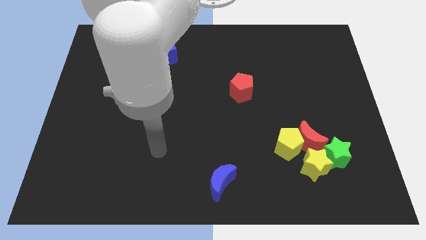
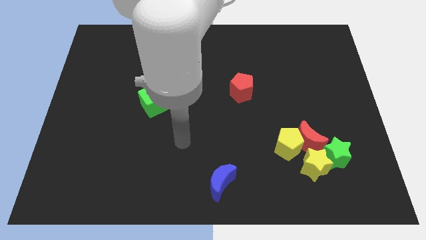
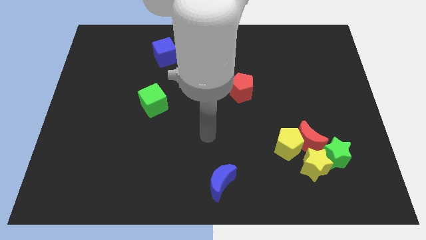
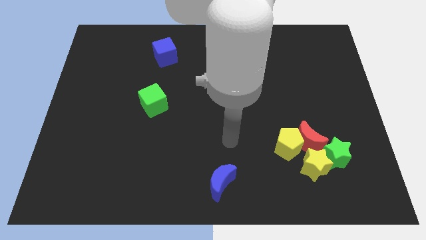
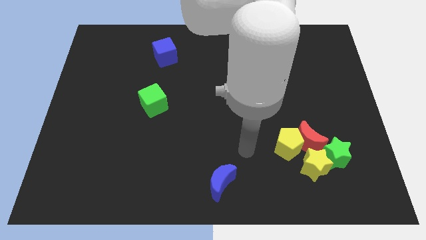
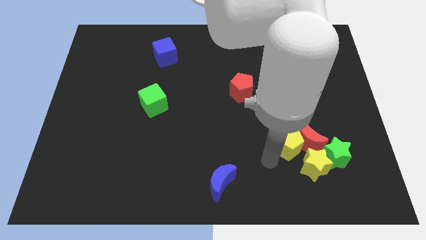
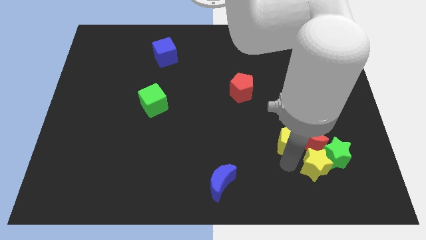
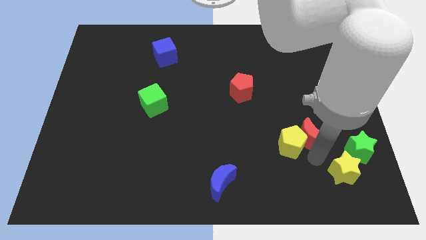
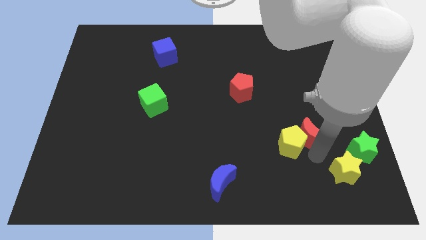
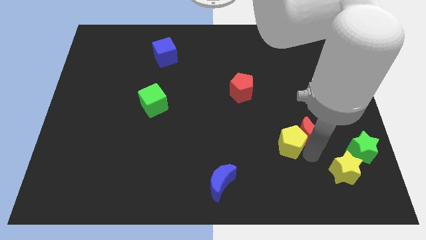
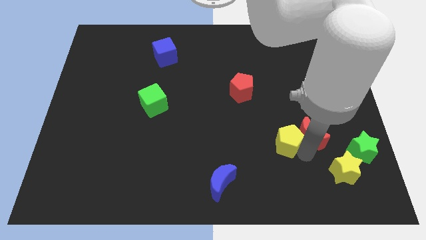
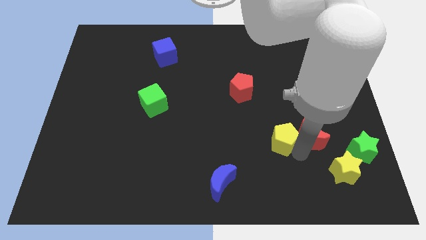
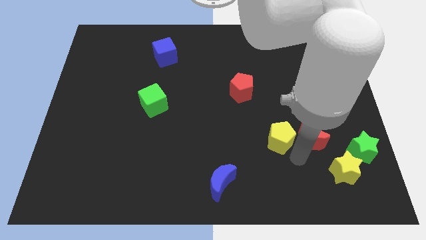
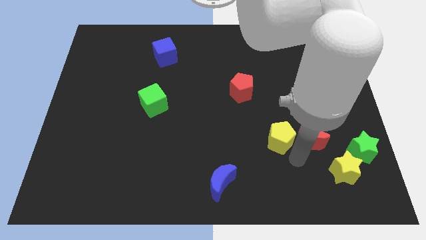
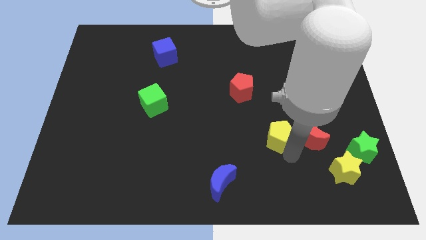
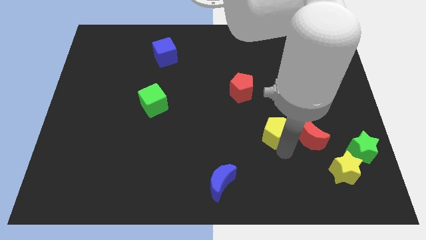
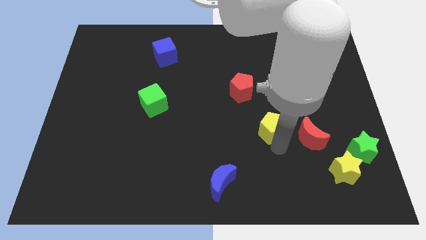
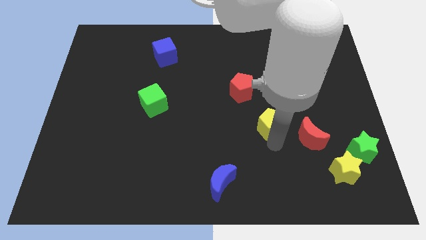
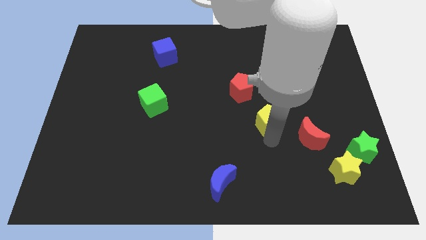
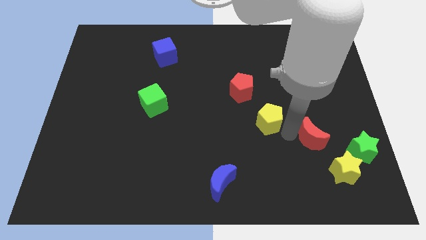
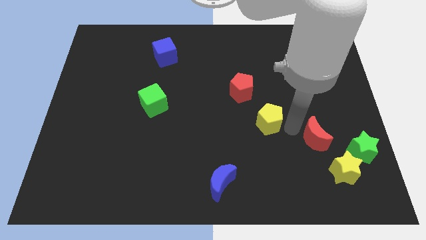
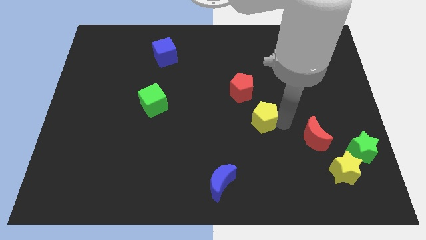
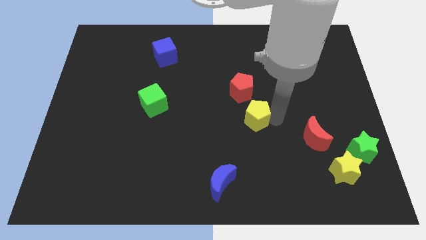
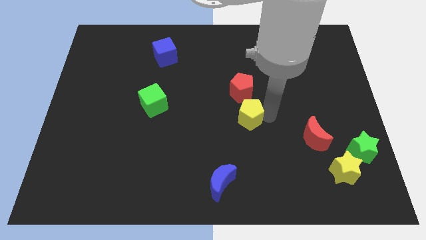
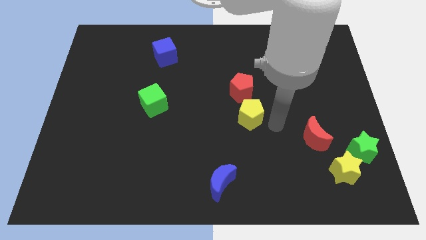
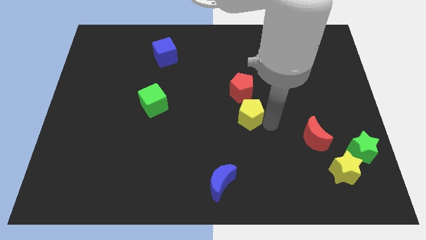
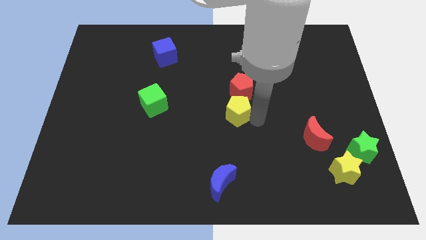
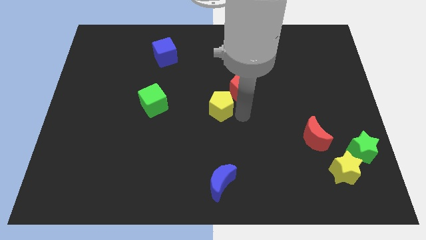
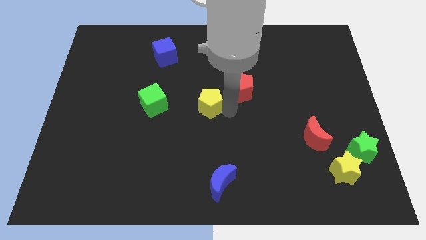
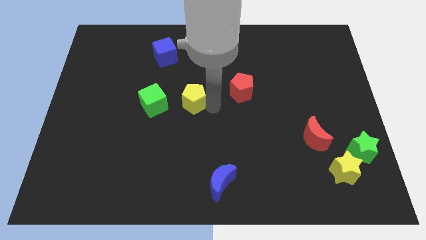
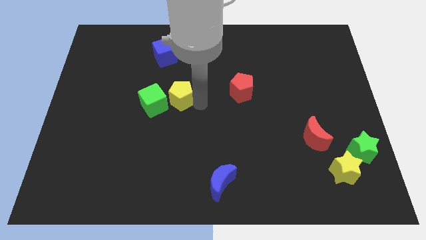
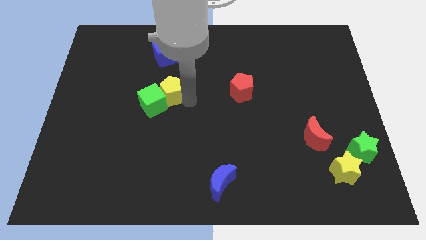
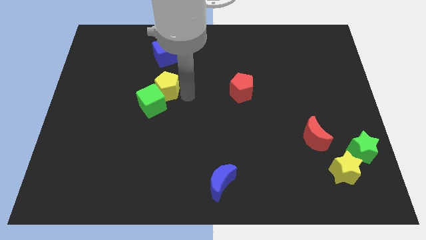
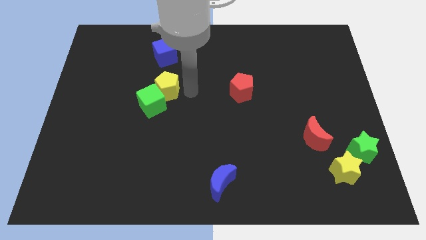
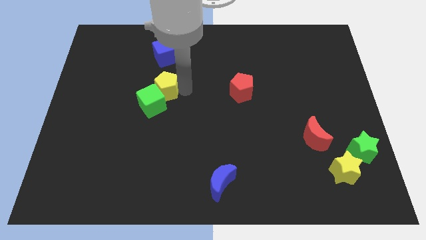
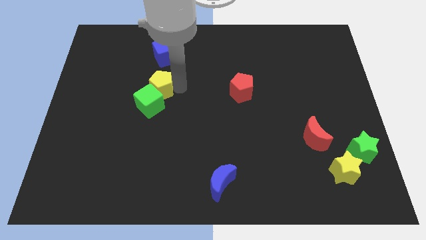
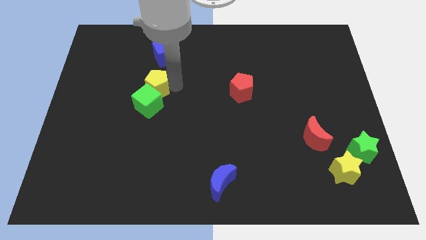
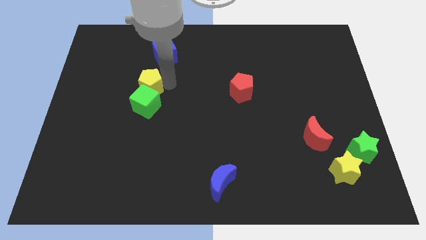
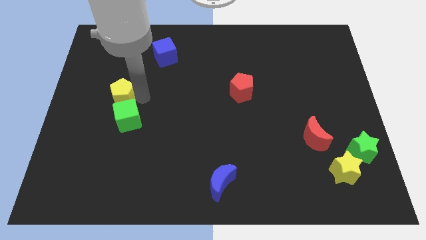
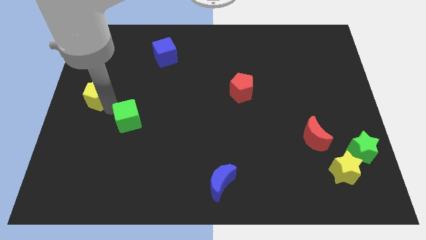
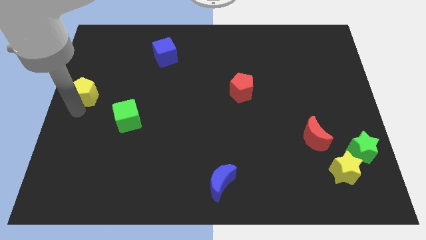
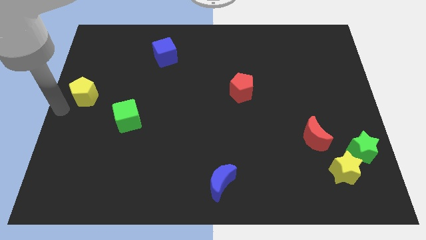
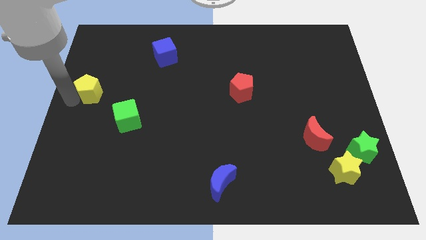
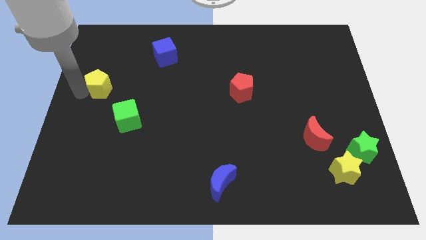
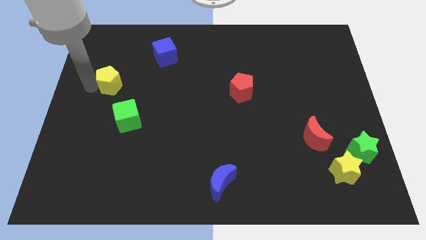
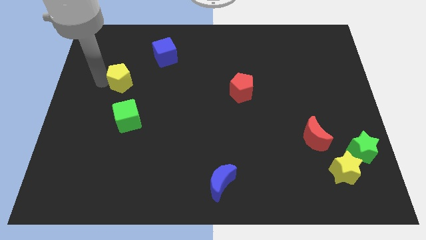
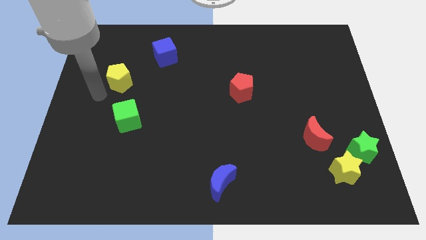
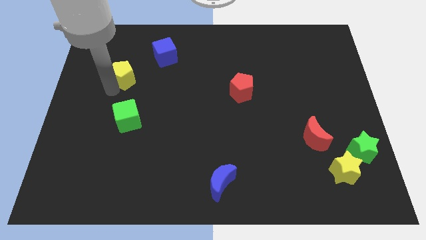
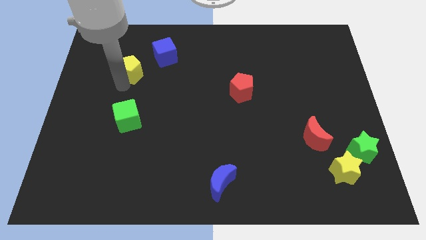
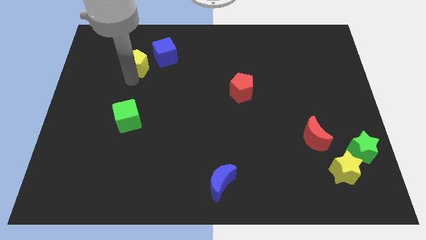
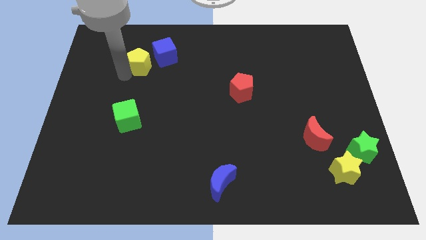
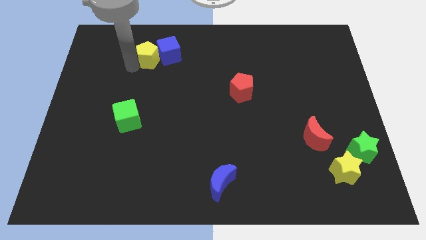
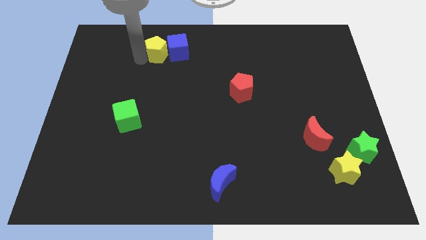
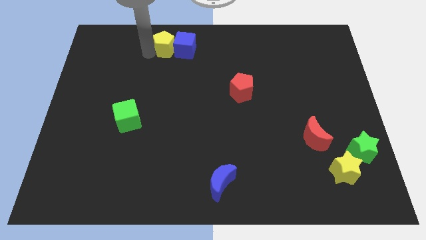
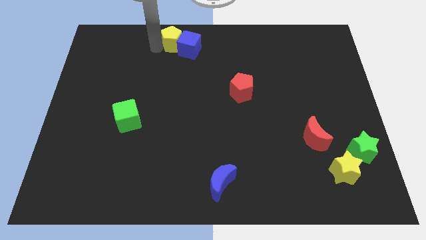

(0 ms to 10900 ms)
push the yellow pentagon to the top side

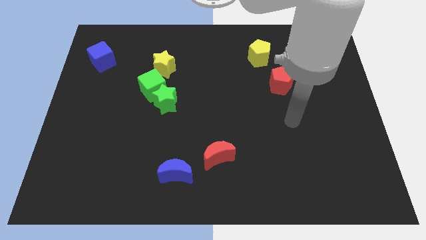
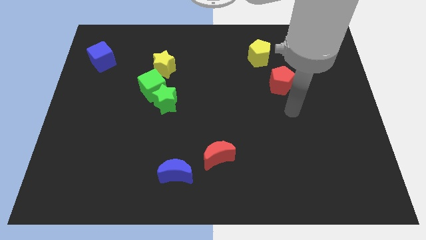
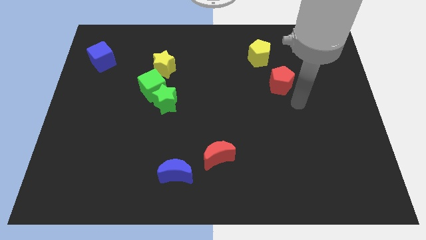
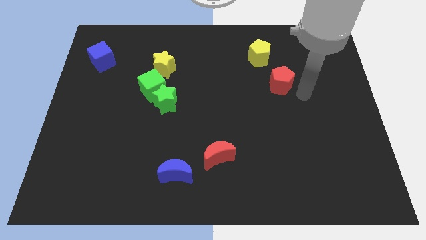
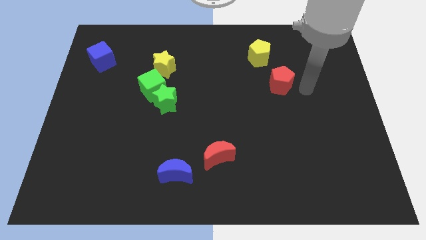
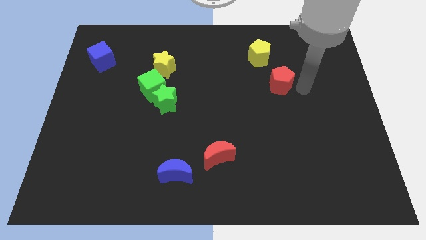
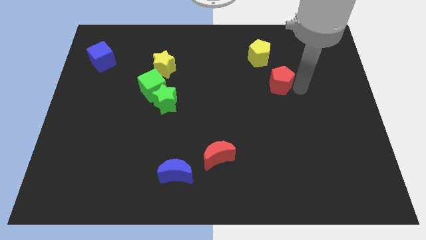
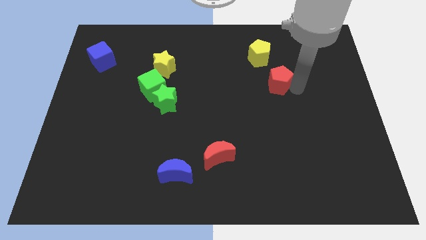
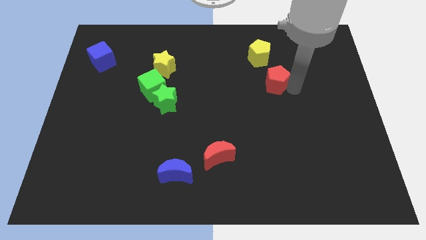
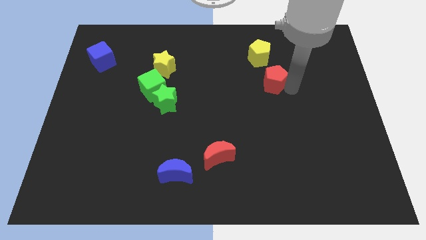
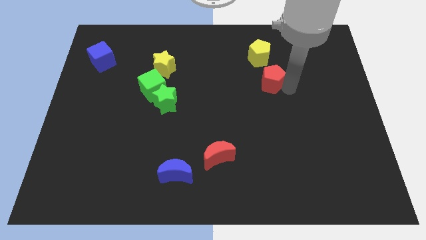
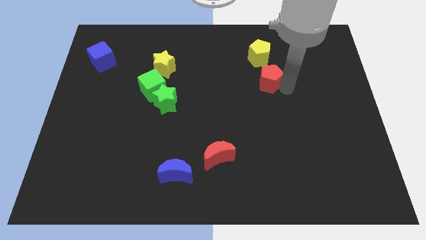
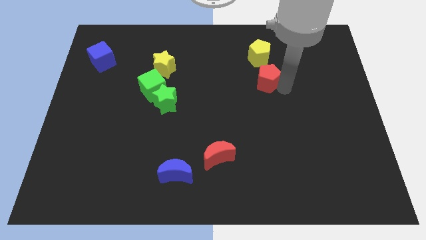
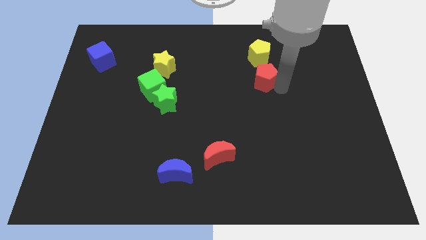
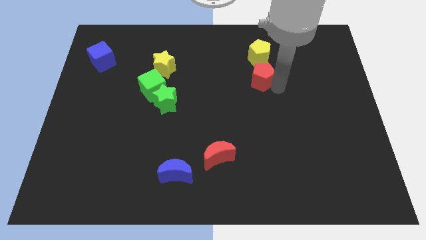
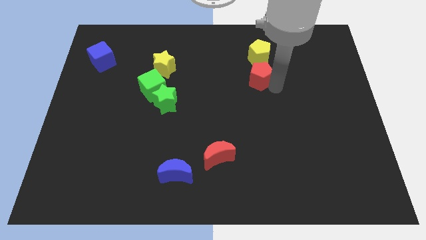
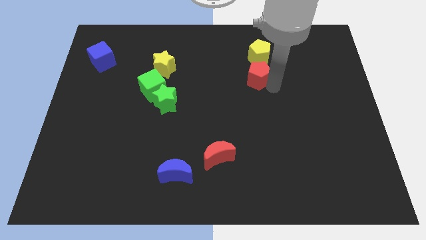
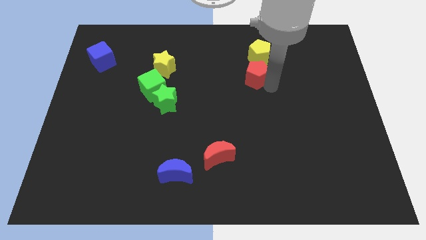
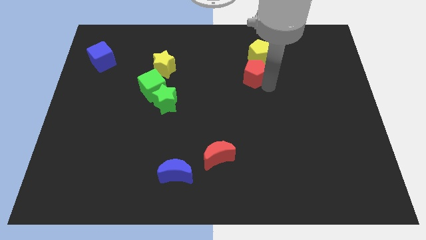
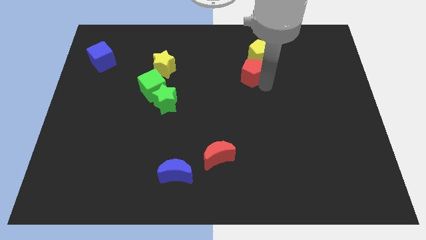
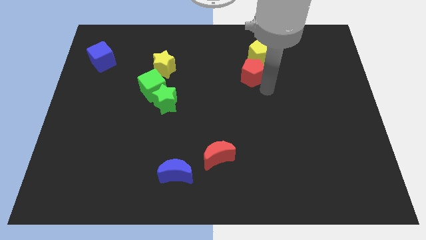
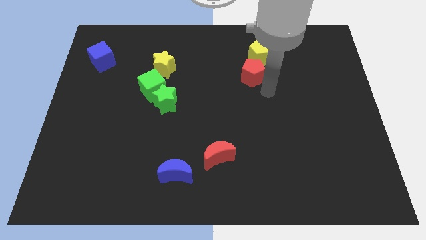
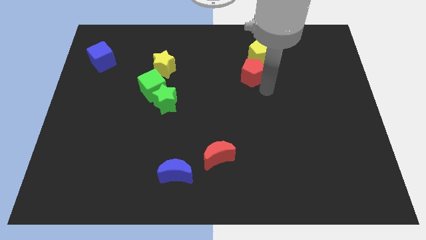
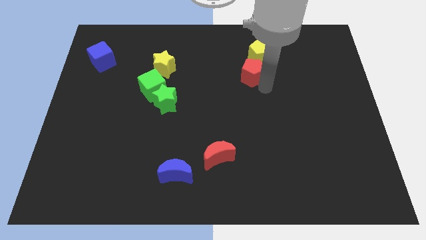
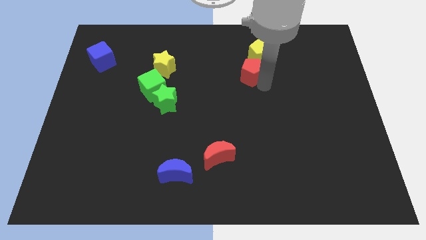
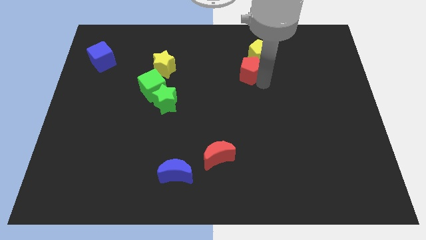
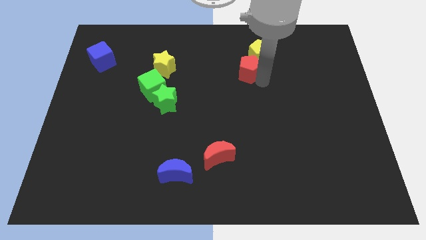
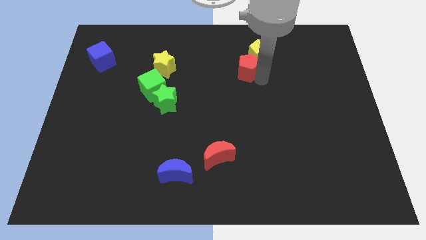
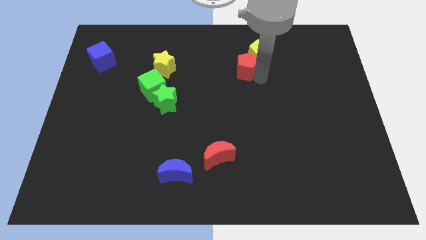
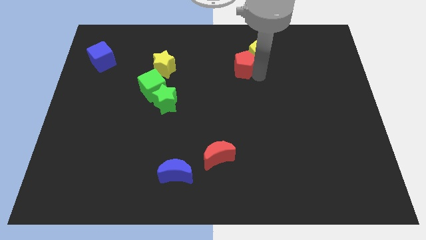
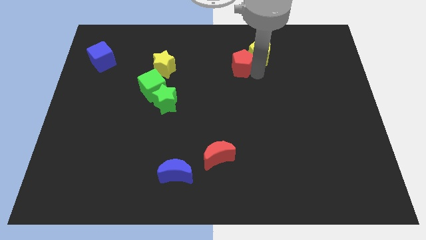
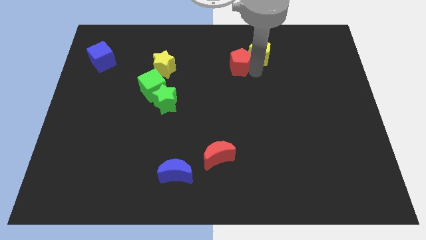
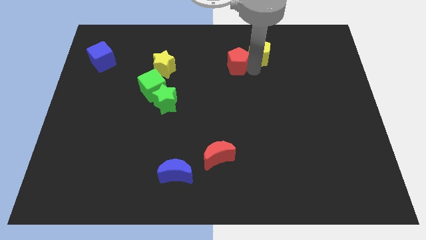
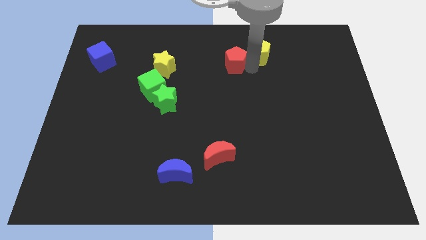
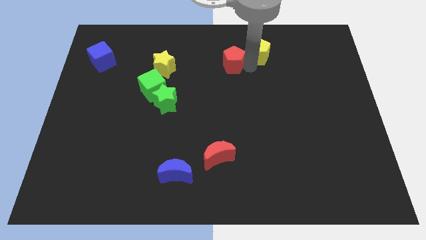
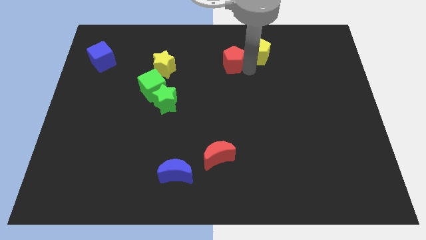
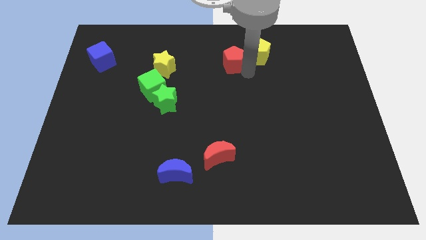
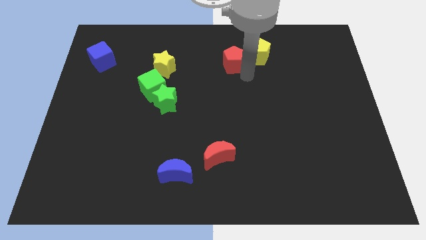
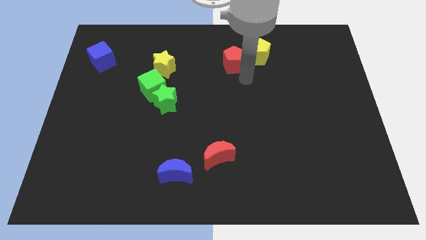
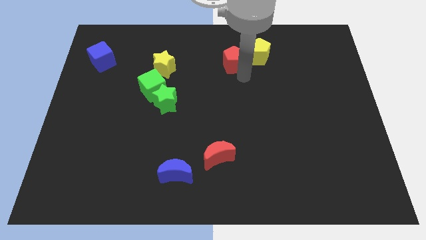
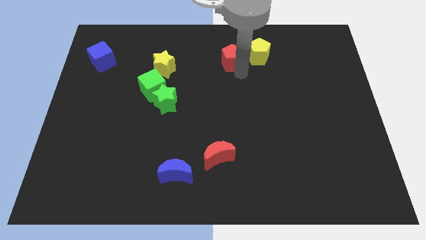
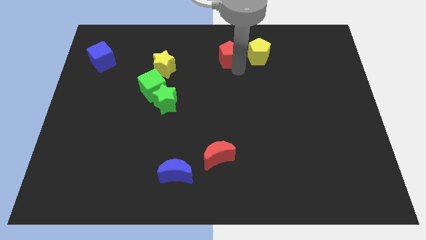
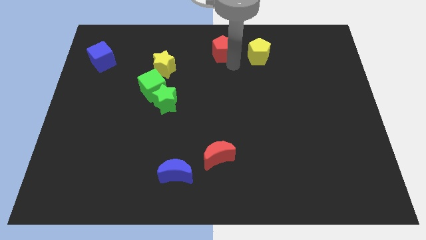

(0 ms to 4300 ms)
push the red pentagon to the towards your base
